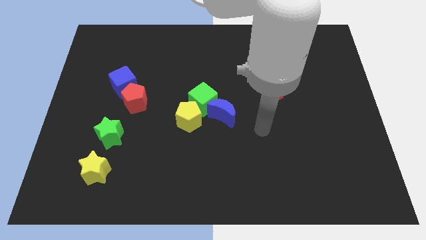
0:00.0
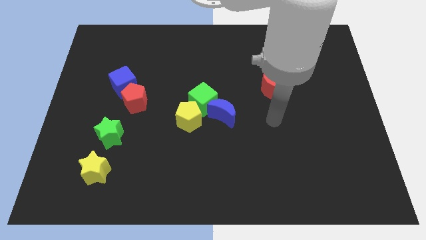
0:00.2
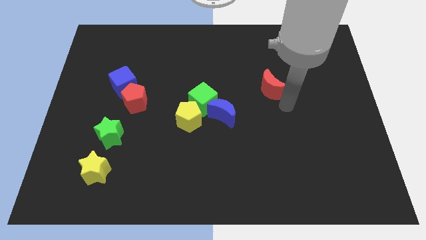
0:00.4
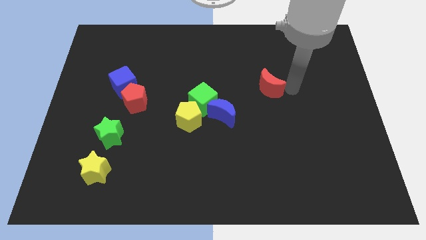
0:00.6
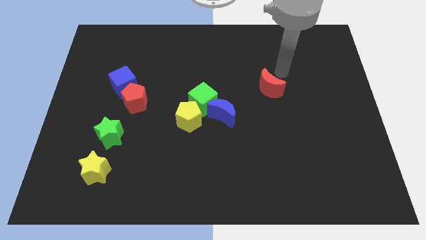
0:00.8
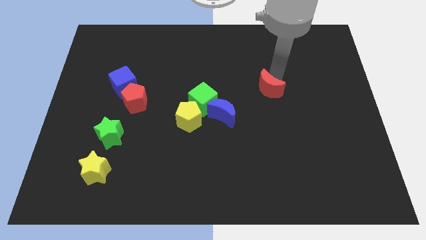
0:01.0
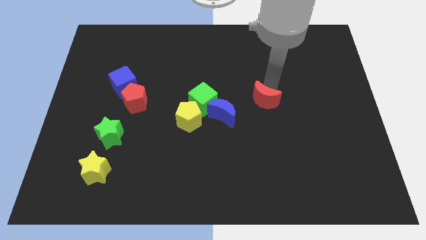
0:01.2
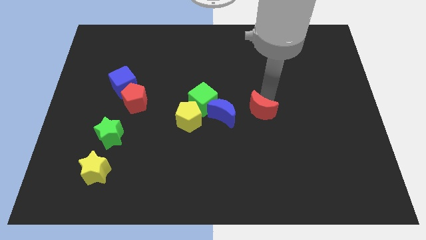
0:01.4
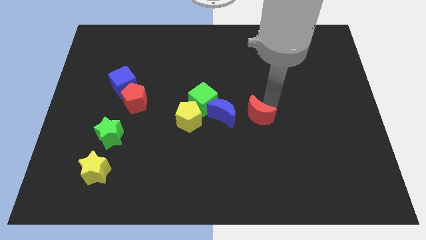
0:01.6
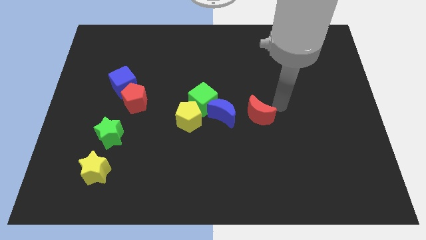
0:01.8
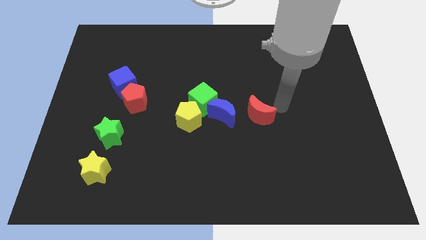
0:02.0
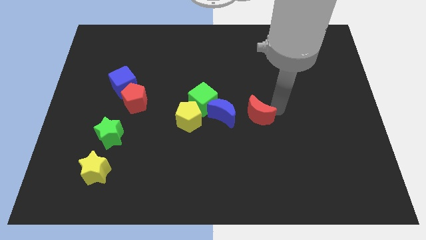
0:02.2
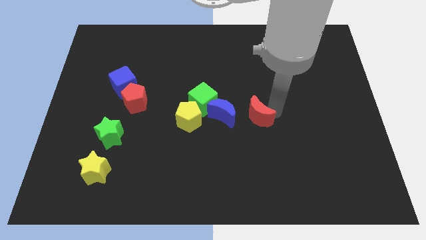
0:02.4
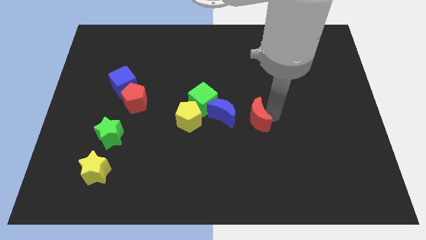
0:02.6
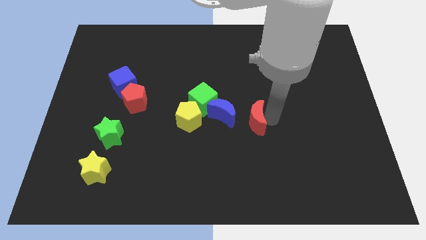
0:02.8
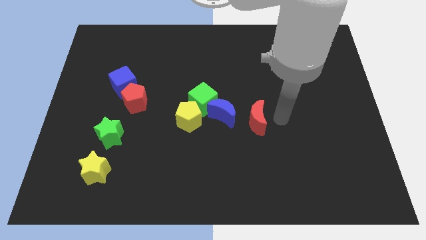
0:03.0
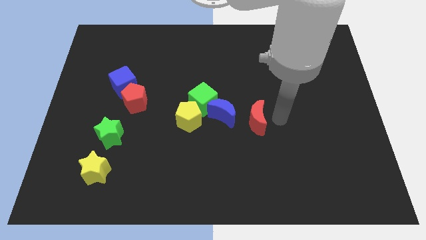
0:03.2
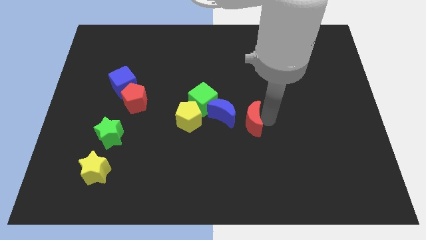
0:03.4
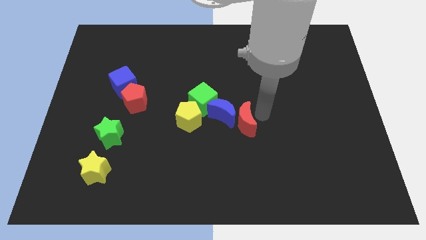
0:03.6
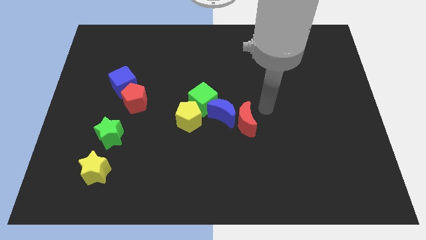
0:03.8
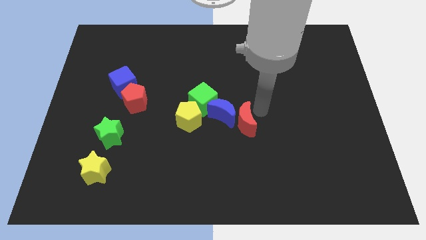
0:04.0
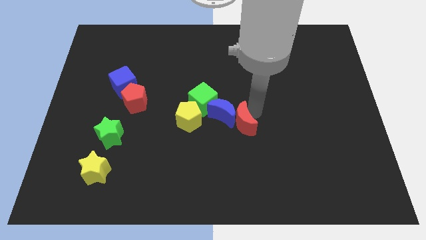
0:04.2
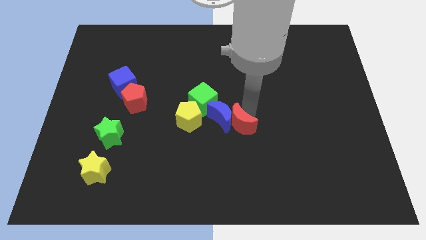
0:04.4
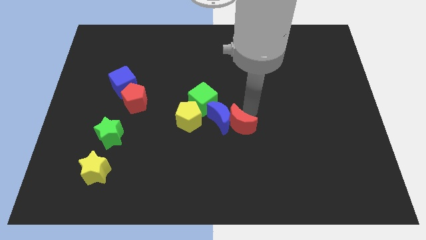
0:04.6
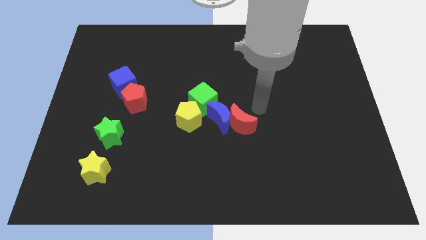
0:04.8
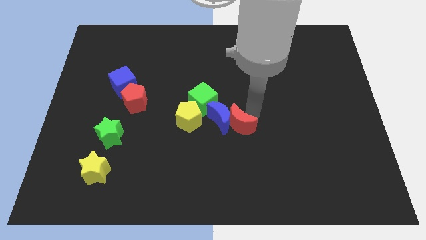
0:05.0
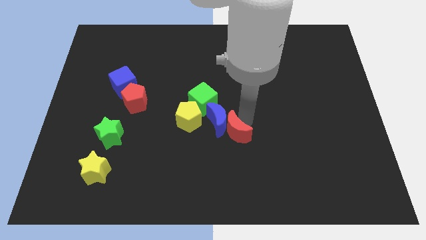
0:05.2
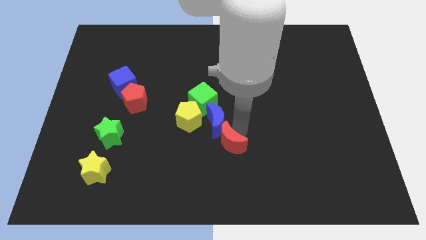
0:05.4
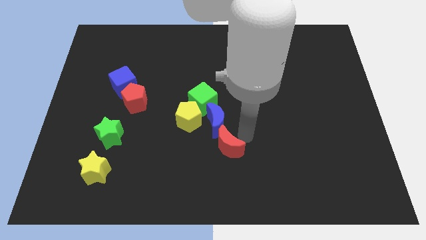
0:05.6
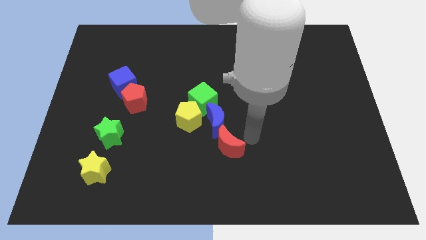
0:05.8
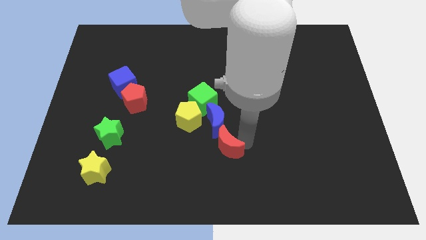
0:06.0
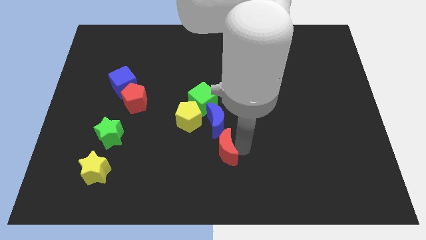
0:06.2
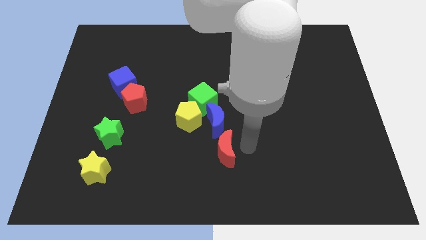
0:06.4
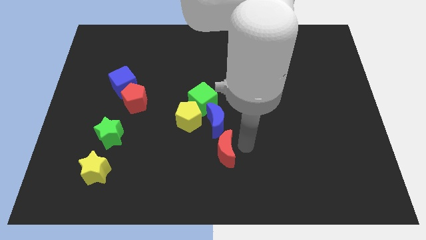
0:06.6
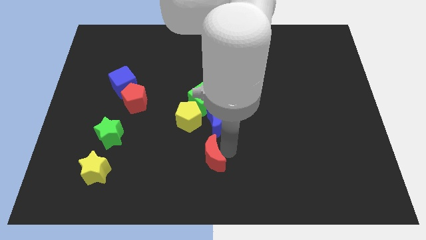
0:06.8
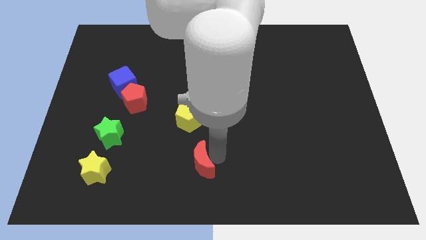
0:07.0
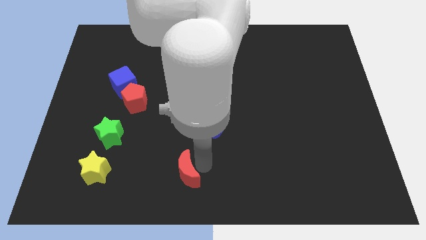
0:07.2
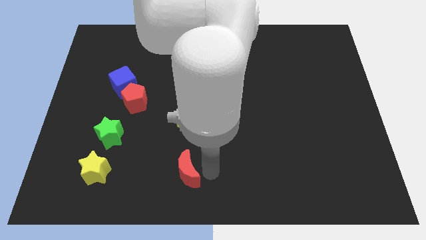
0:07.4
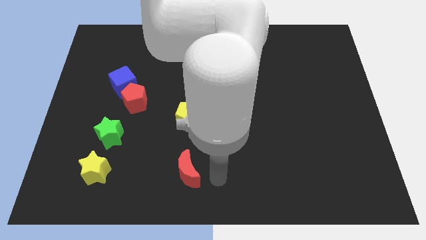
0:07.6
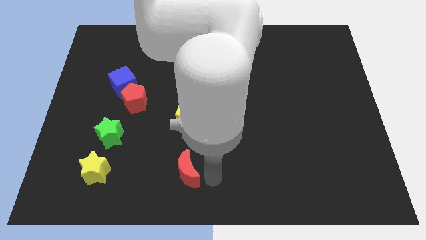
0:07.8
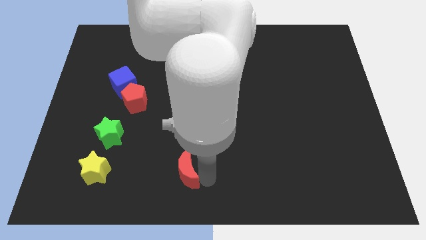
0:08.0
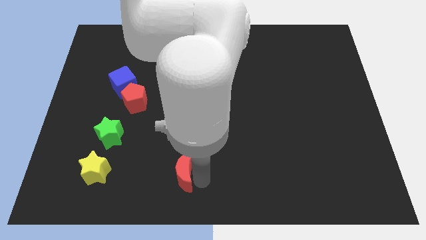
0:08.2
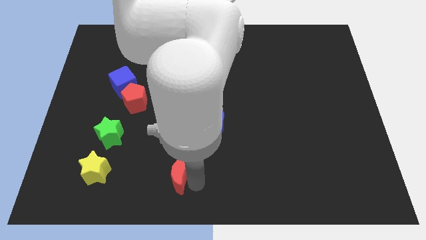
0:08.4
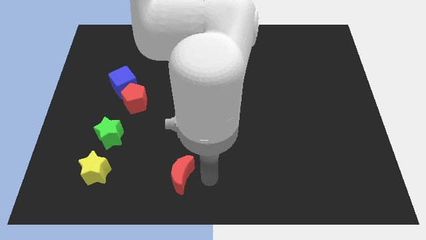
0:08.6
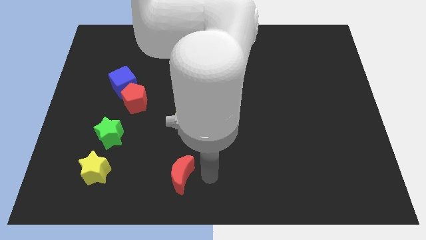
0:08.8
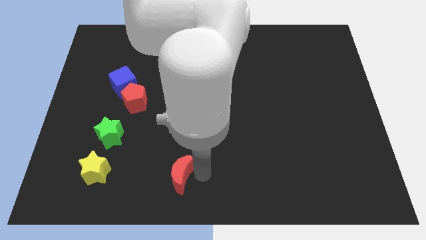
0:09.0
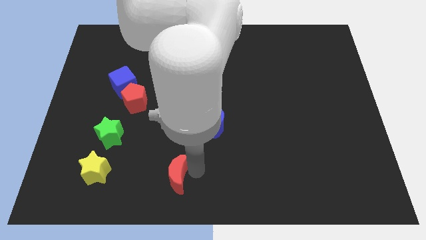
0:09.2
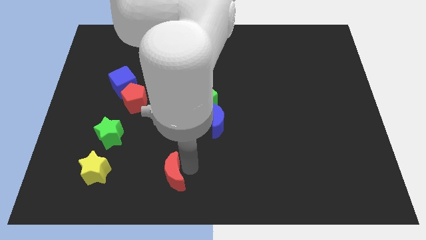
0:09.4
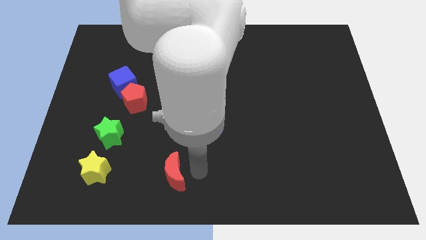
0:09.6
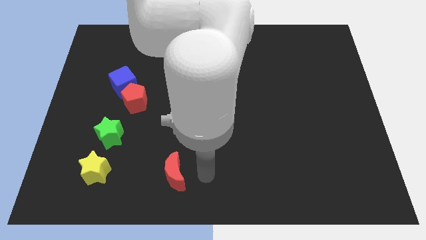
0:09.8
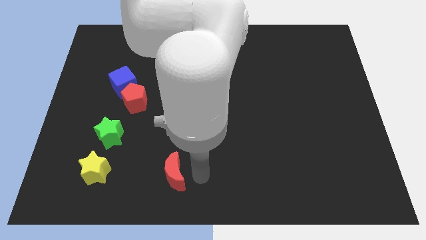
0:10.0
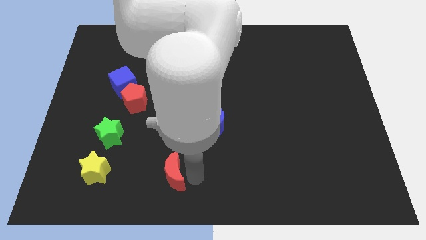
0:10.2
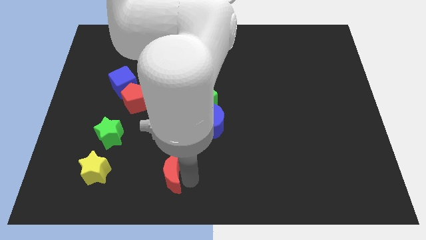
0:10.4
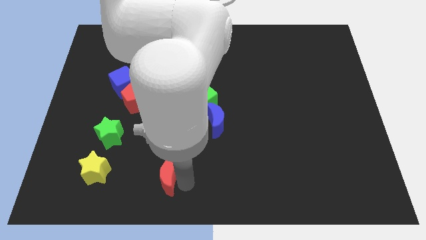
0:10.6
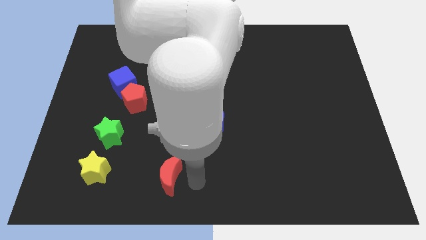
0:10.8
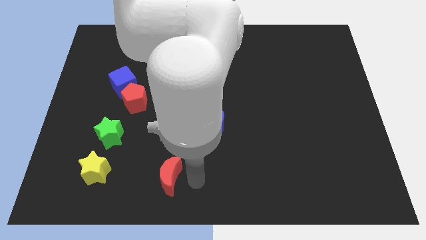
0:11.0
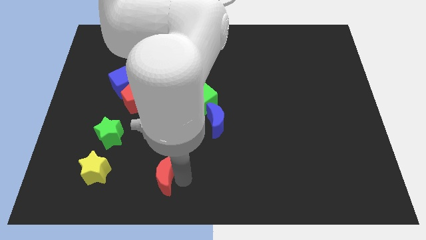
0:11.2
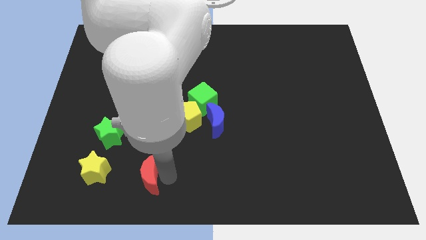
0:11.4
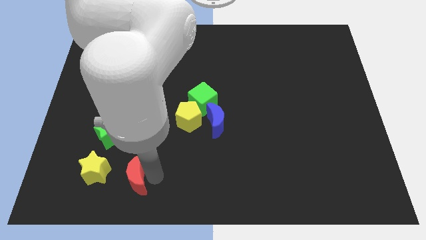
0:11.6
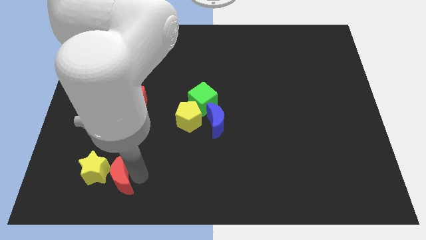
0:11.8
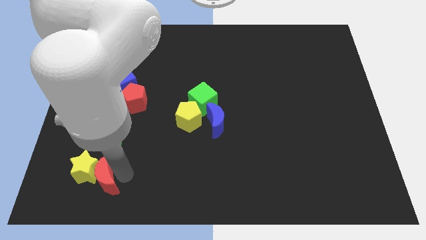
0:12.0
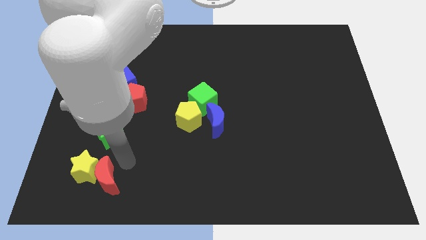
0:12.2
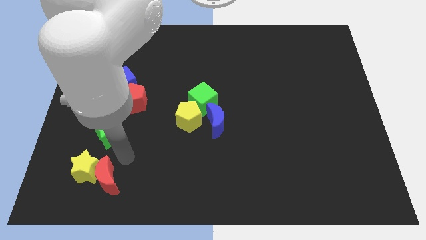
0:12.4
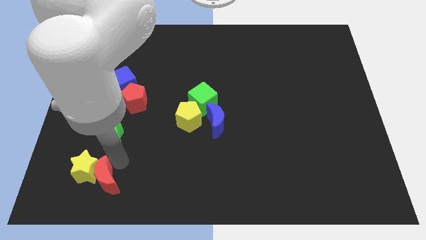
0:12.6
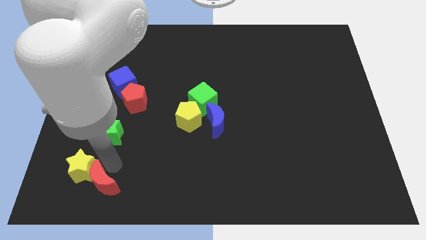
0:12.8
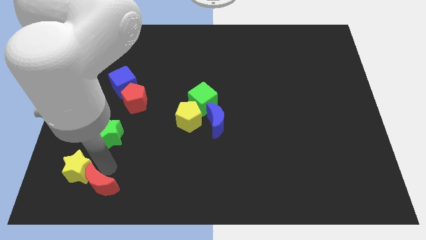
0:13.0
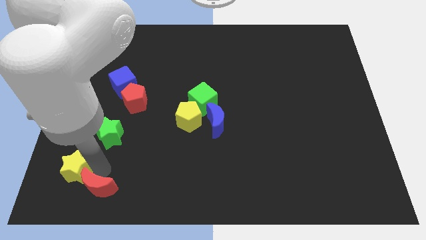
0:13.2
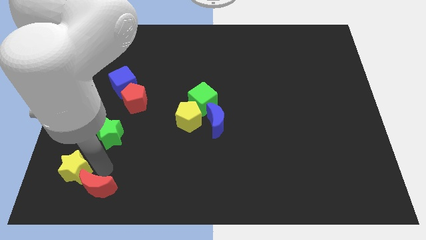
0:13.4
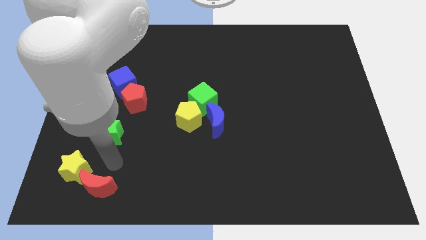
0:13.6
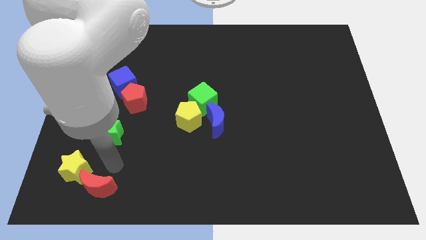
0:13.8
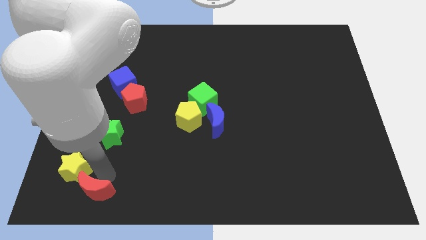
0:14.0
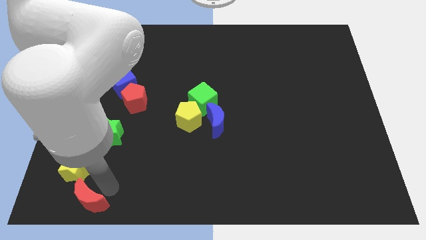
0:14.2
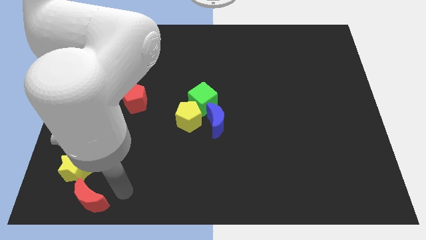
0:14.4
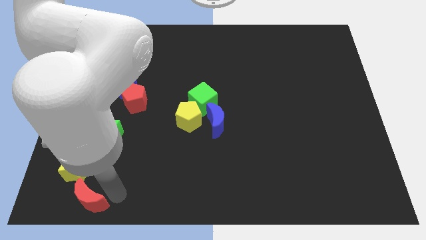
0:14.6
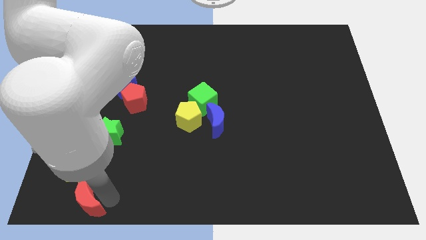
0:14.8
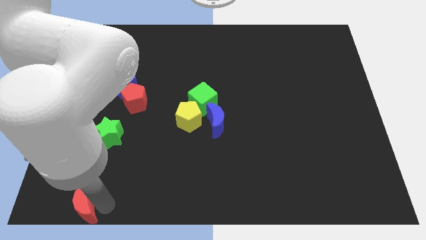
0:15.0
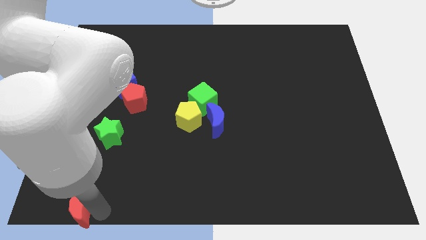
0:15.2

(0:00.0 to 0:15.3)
move the red moon to the bottom left of the board
